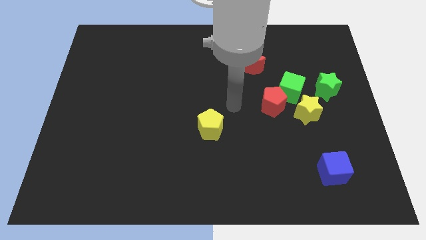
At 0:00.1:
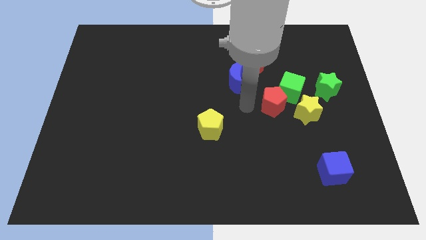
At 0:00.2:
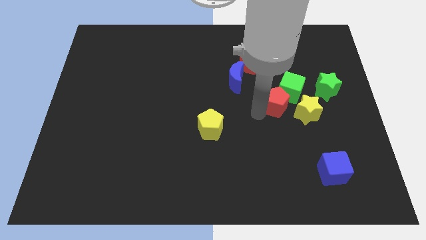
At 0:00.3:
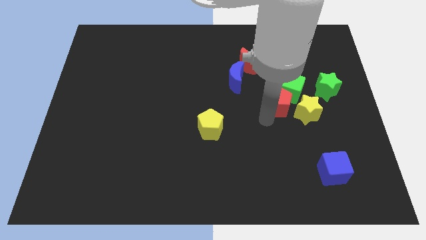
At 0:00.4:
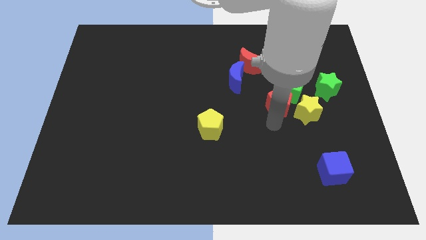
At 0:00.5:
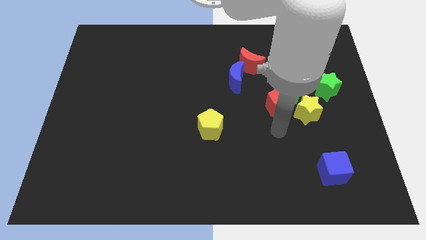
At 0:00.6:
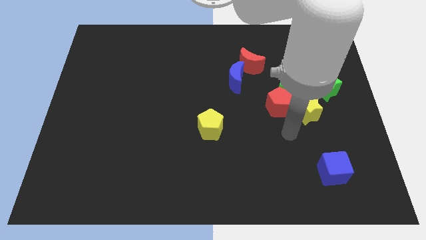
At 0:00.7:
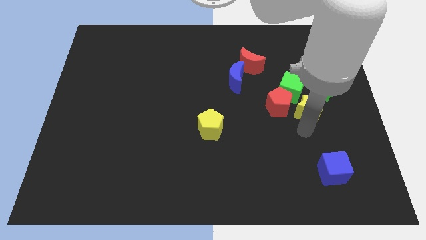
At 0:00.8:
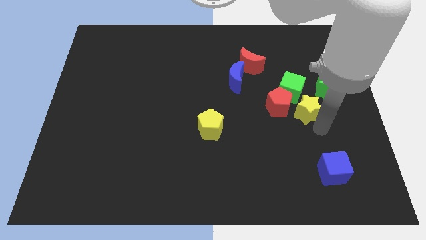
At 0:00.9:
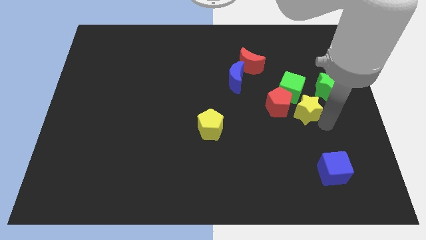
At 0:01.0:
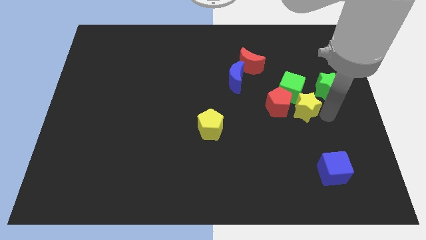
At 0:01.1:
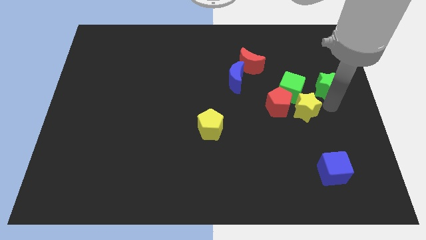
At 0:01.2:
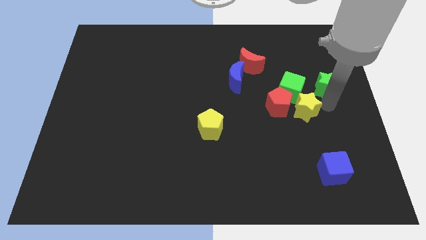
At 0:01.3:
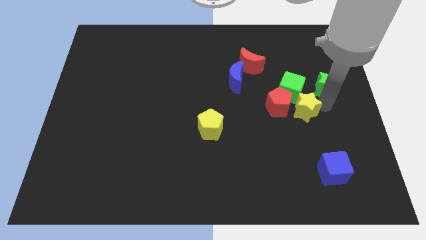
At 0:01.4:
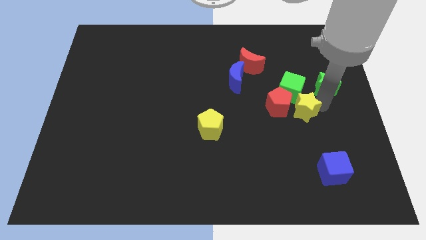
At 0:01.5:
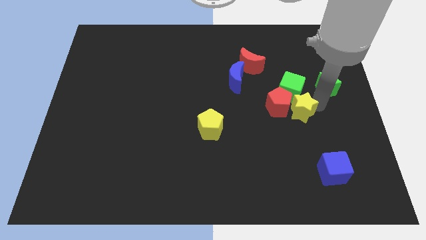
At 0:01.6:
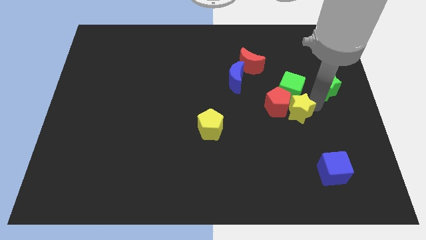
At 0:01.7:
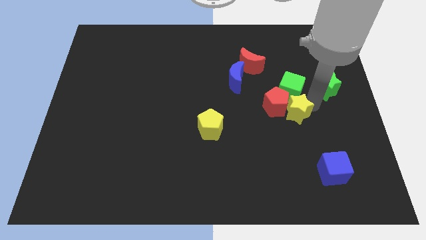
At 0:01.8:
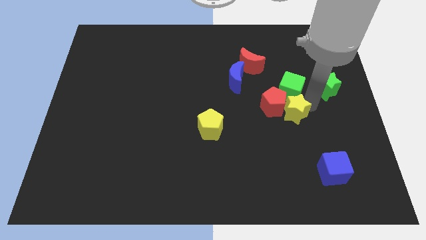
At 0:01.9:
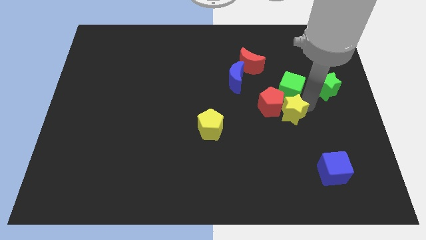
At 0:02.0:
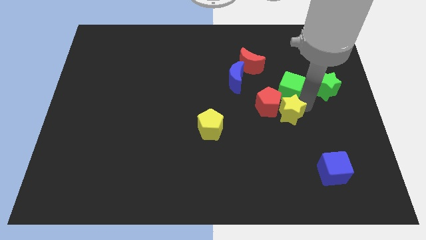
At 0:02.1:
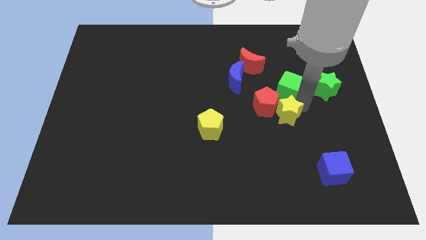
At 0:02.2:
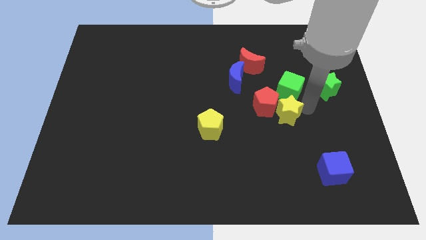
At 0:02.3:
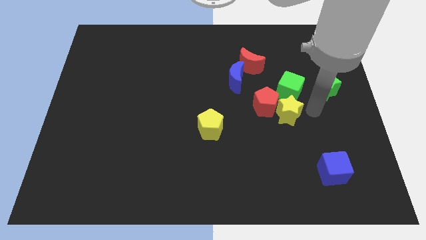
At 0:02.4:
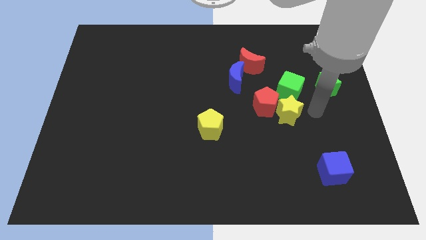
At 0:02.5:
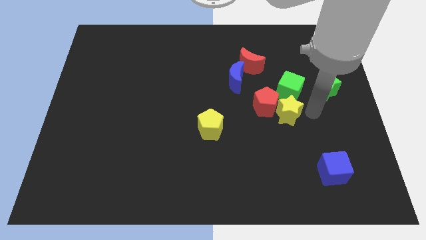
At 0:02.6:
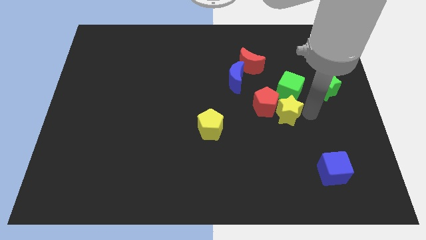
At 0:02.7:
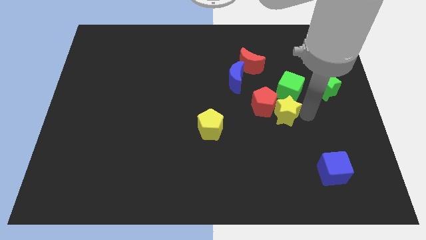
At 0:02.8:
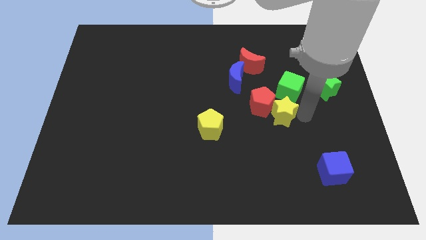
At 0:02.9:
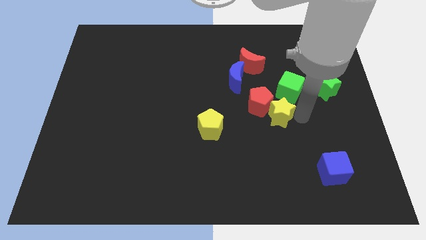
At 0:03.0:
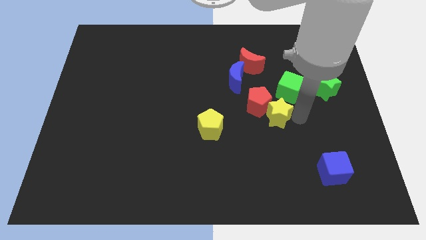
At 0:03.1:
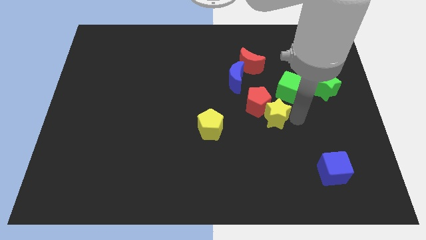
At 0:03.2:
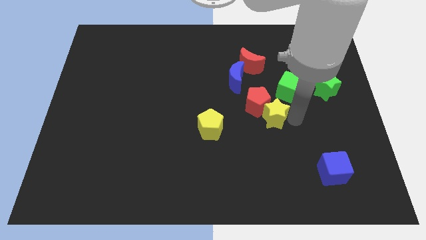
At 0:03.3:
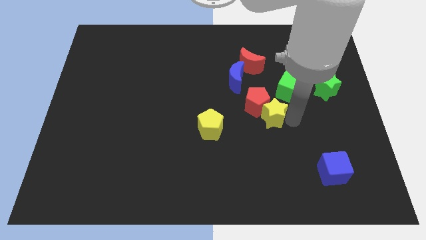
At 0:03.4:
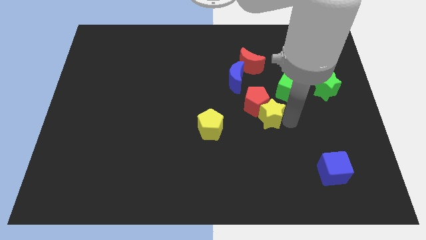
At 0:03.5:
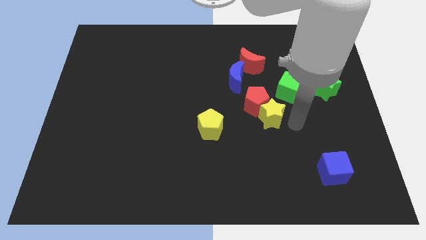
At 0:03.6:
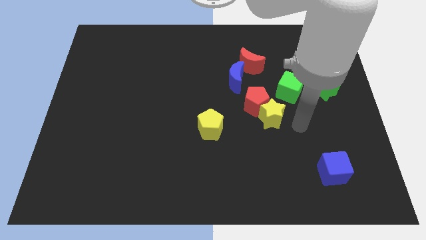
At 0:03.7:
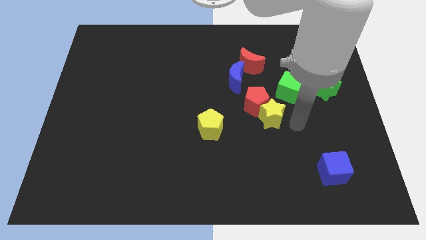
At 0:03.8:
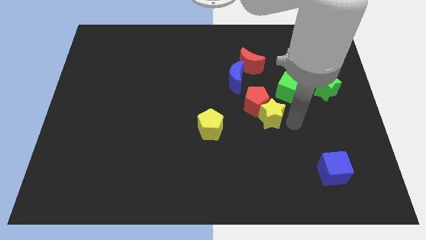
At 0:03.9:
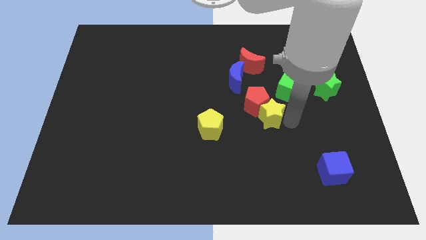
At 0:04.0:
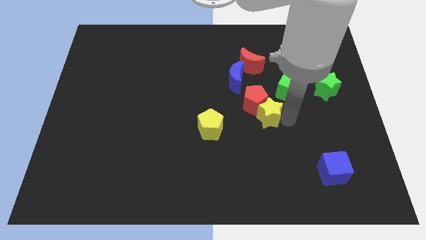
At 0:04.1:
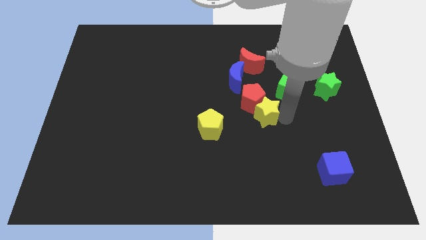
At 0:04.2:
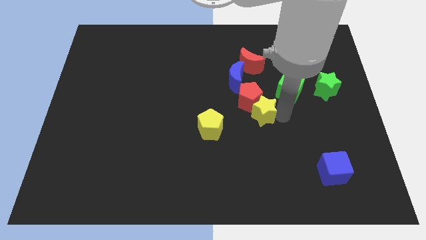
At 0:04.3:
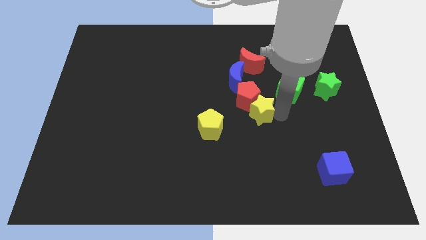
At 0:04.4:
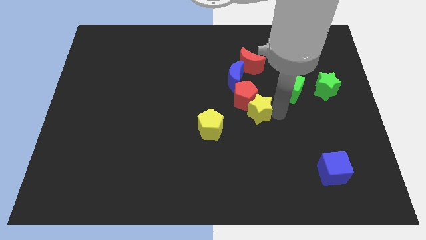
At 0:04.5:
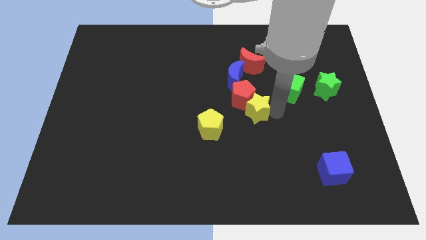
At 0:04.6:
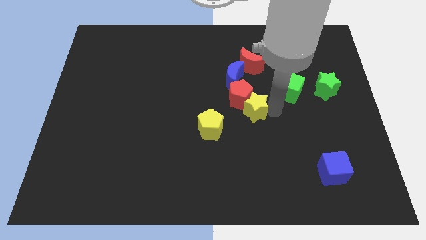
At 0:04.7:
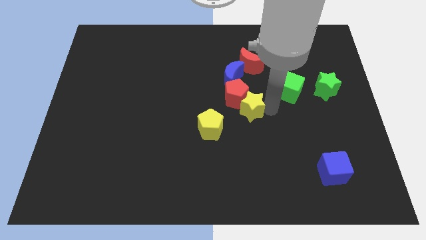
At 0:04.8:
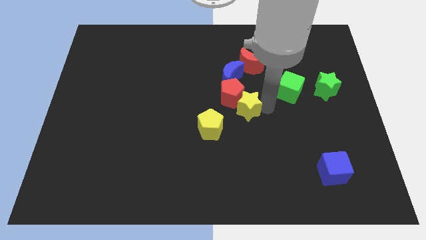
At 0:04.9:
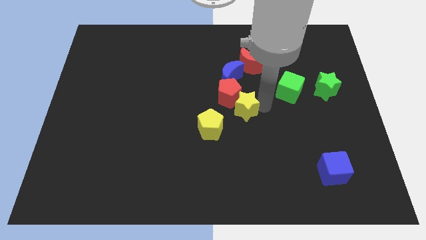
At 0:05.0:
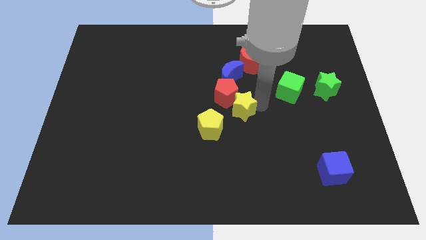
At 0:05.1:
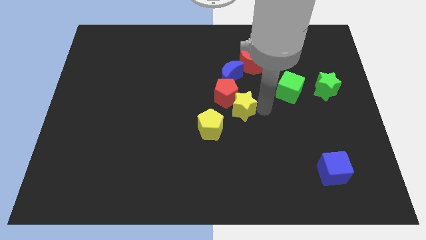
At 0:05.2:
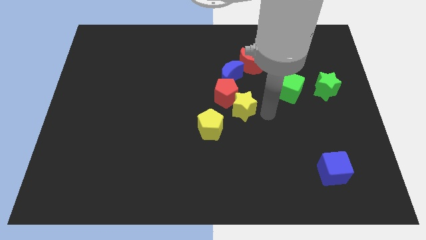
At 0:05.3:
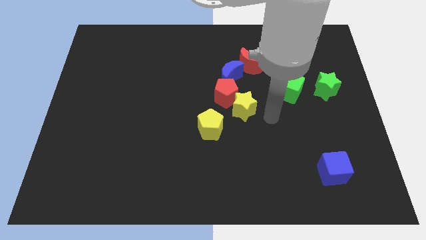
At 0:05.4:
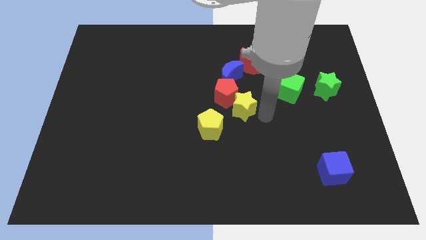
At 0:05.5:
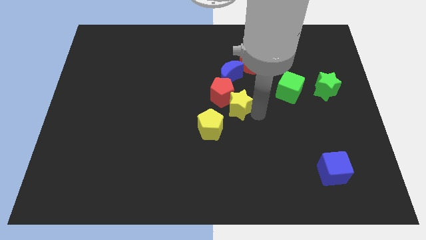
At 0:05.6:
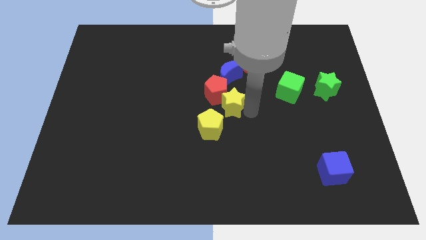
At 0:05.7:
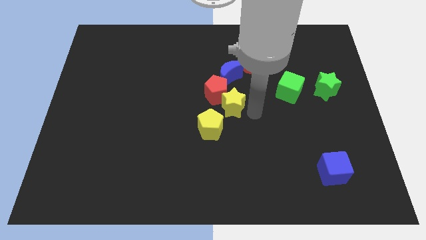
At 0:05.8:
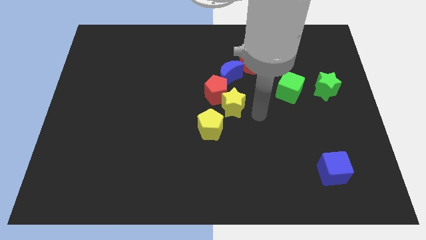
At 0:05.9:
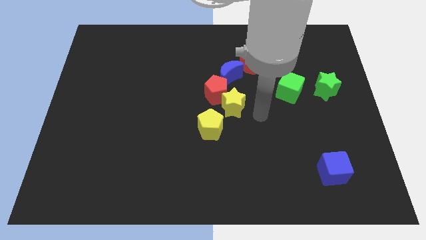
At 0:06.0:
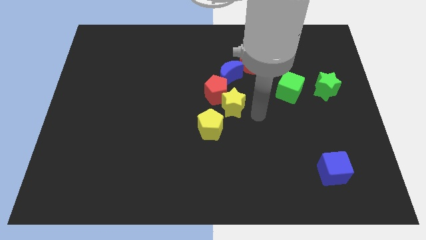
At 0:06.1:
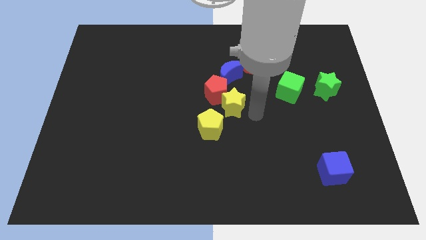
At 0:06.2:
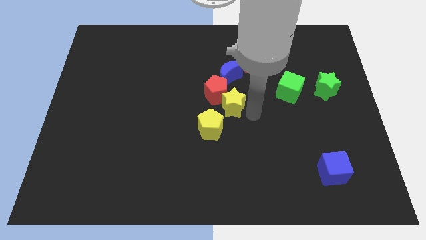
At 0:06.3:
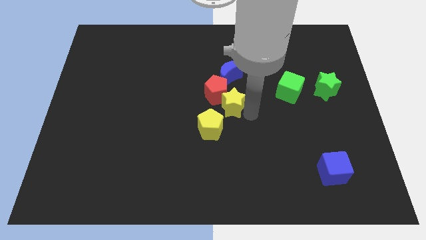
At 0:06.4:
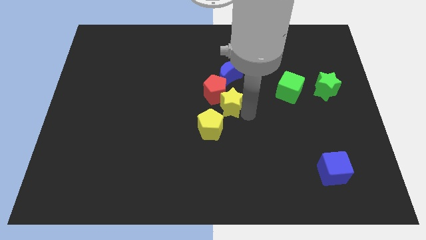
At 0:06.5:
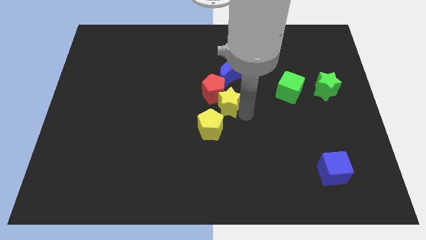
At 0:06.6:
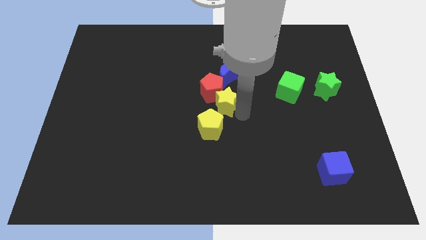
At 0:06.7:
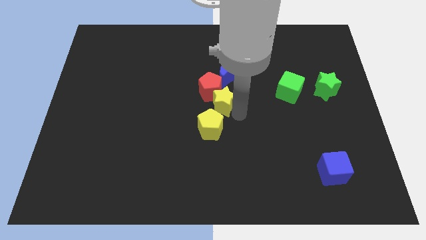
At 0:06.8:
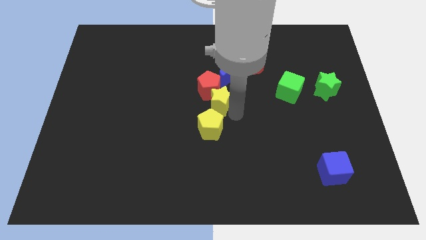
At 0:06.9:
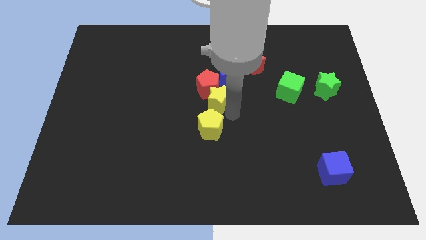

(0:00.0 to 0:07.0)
slide the yellow star left

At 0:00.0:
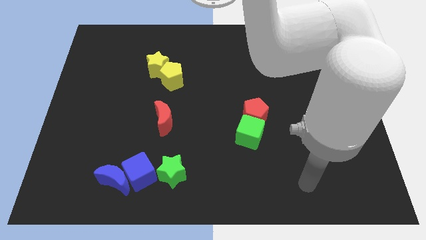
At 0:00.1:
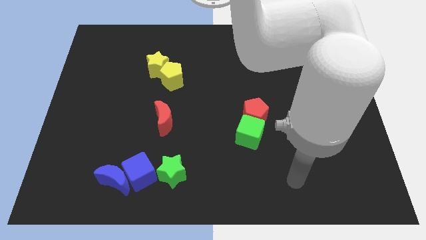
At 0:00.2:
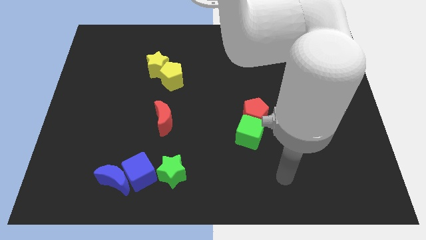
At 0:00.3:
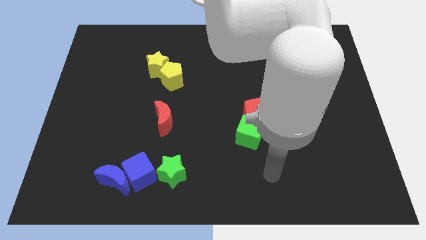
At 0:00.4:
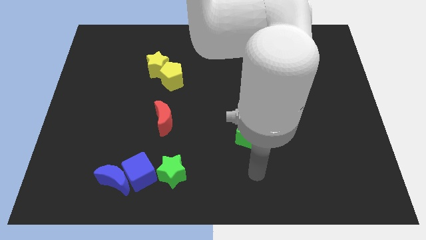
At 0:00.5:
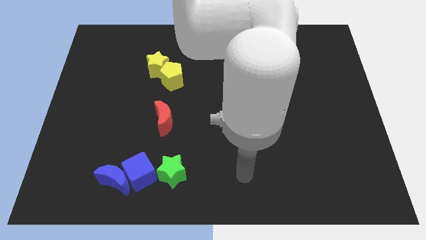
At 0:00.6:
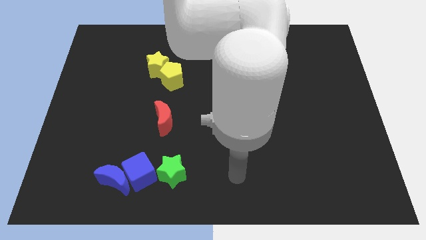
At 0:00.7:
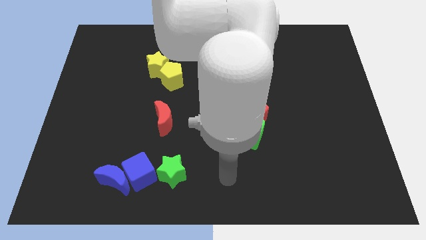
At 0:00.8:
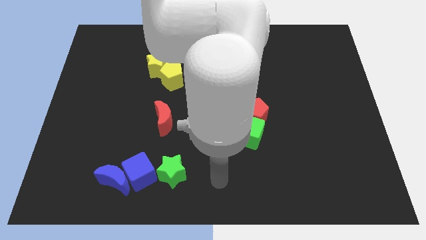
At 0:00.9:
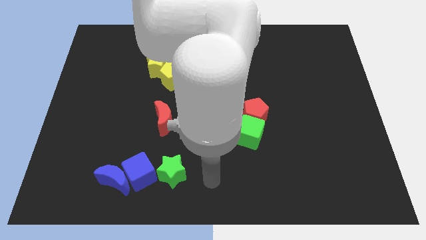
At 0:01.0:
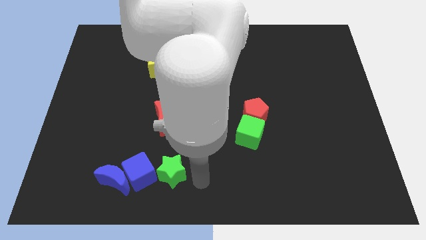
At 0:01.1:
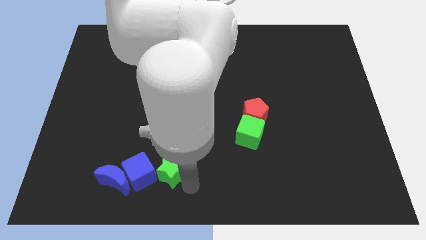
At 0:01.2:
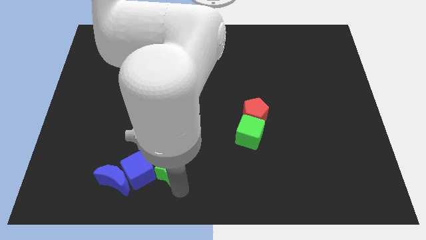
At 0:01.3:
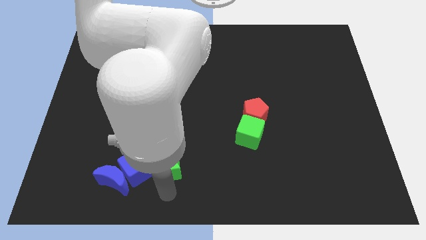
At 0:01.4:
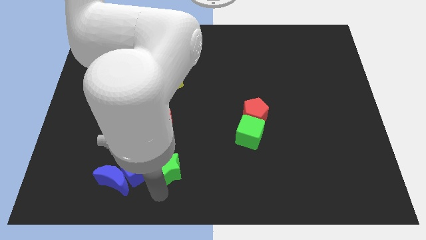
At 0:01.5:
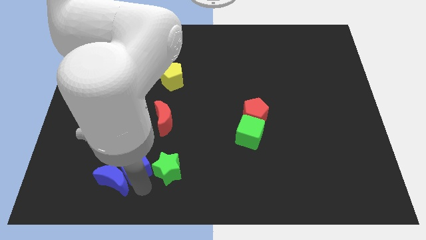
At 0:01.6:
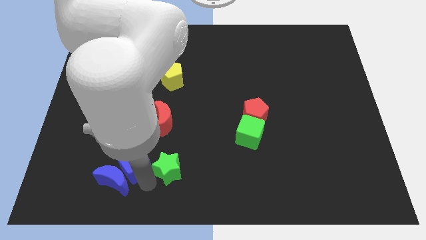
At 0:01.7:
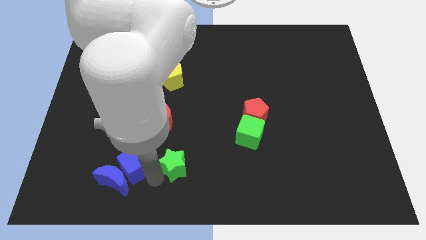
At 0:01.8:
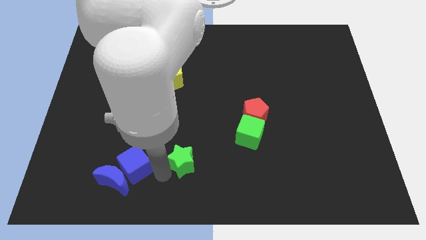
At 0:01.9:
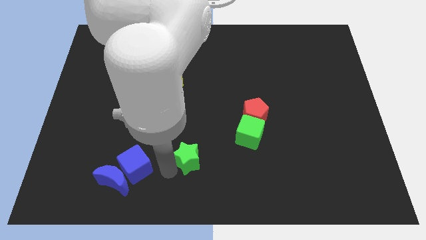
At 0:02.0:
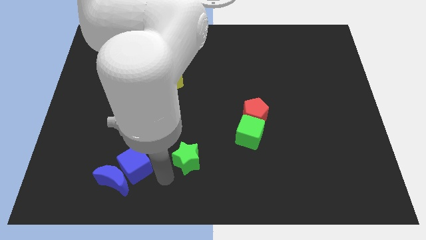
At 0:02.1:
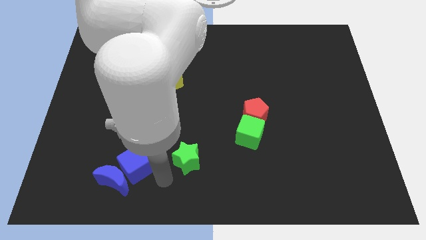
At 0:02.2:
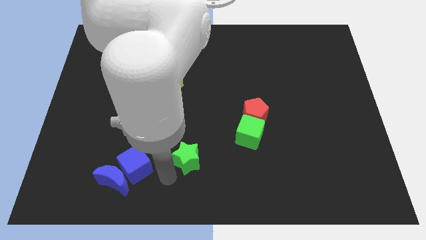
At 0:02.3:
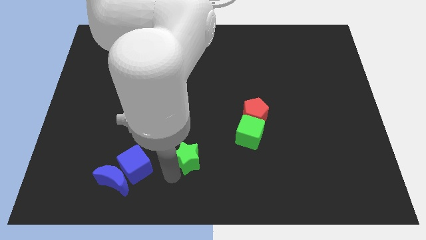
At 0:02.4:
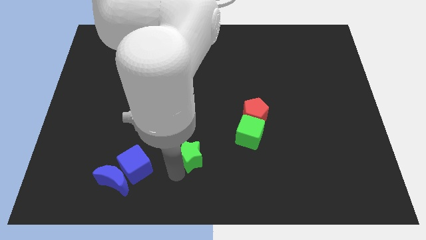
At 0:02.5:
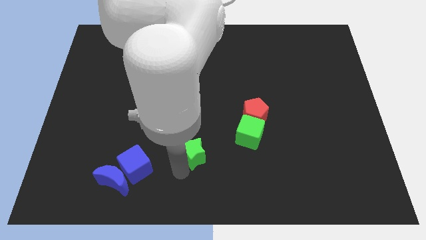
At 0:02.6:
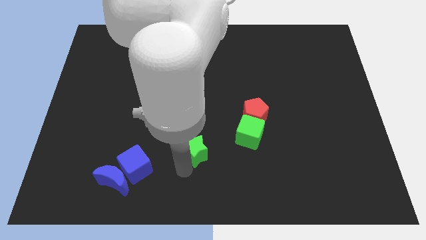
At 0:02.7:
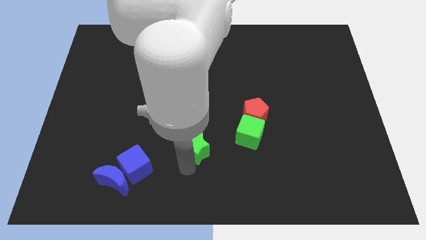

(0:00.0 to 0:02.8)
slide the green star upwards and to the right diagonally a little
